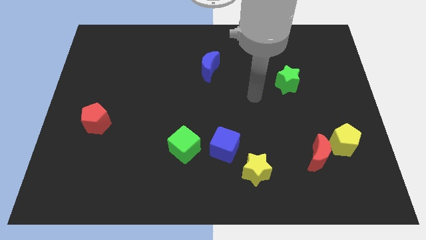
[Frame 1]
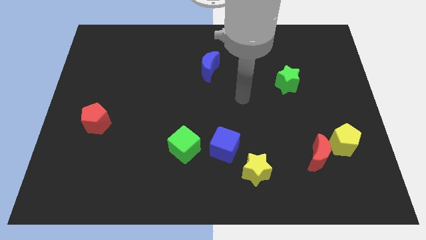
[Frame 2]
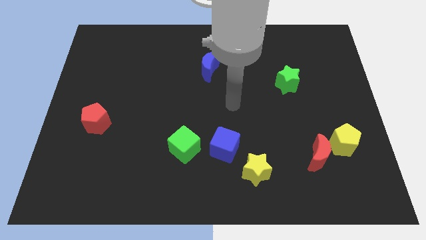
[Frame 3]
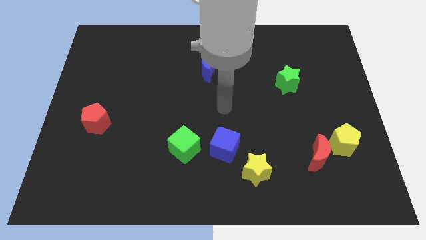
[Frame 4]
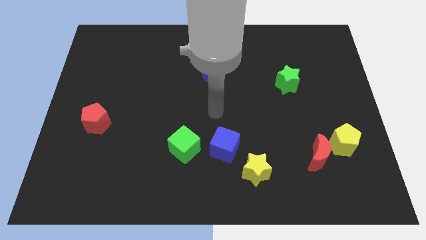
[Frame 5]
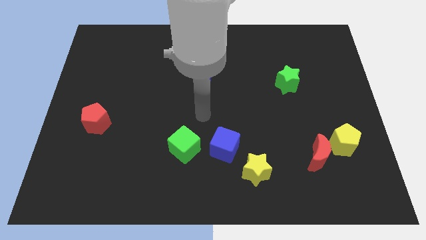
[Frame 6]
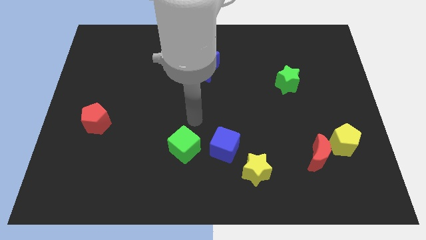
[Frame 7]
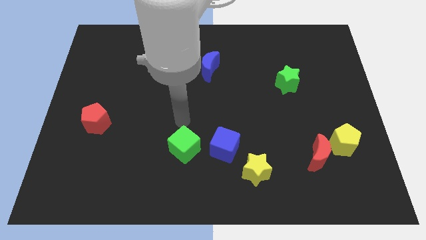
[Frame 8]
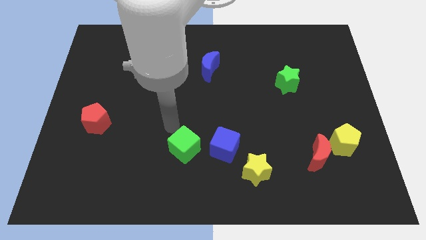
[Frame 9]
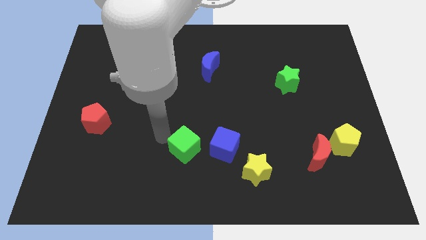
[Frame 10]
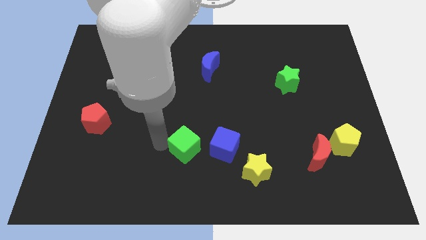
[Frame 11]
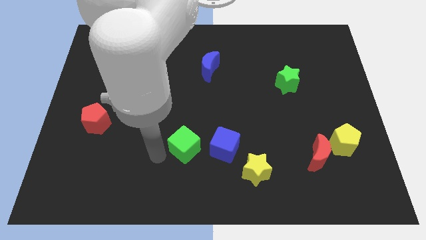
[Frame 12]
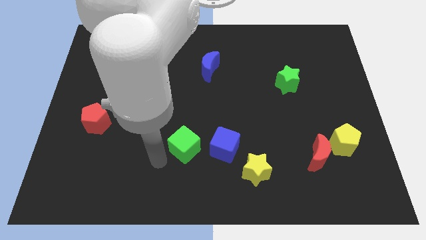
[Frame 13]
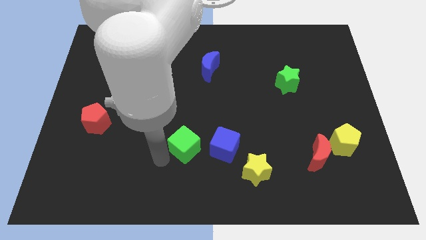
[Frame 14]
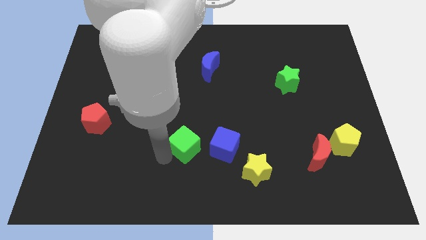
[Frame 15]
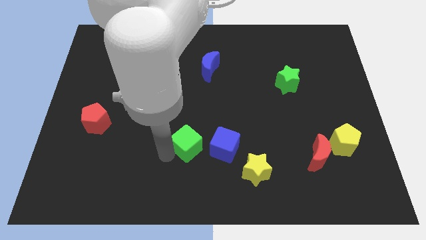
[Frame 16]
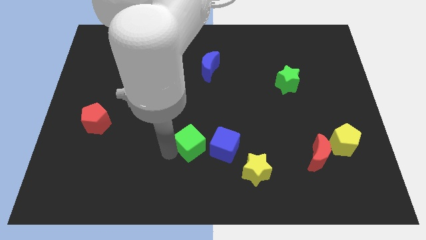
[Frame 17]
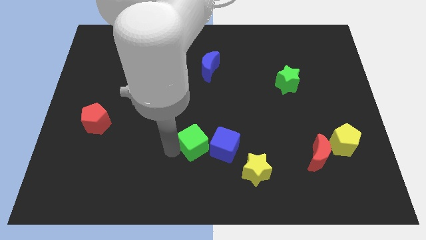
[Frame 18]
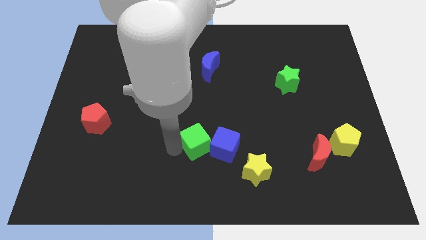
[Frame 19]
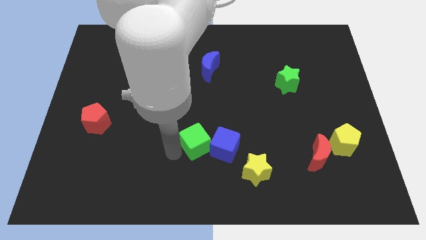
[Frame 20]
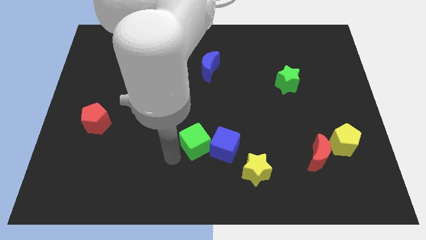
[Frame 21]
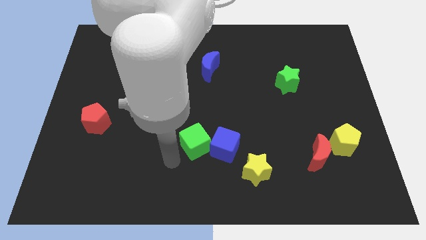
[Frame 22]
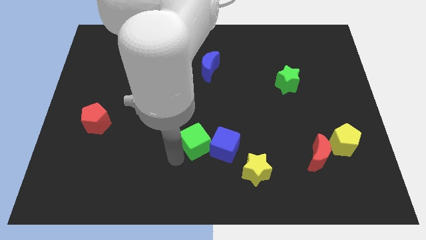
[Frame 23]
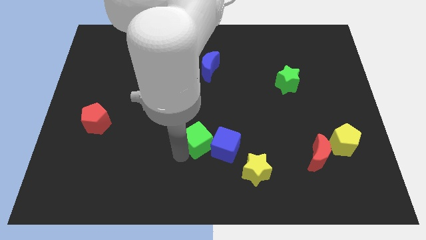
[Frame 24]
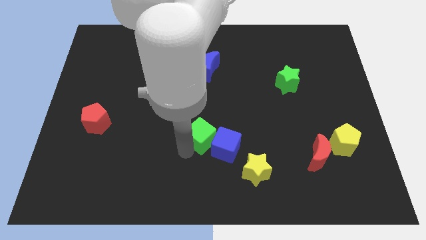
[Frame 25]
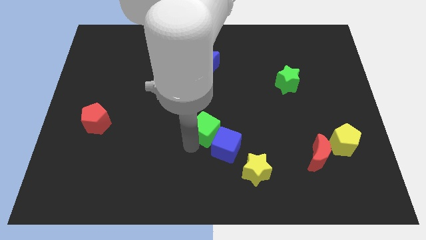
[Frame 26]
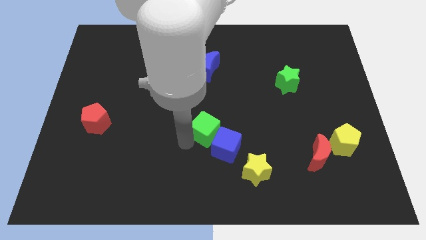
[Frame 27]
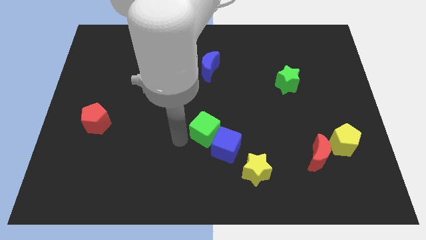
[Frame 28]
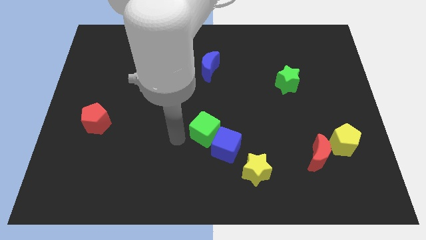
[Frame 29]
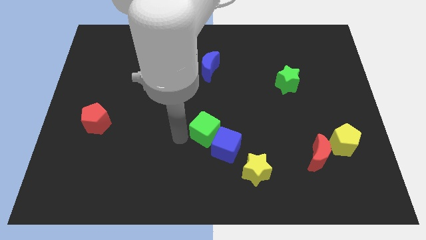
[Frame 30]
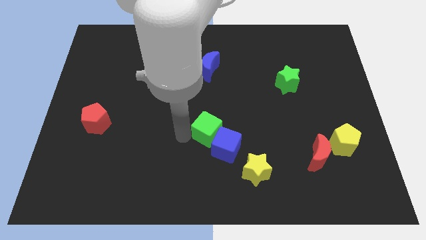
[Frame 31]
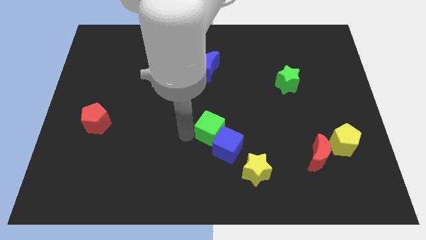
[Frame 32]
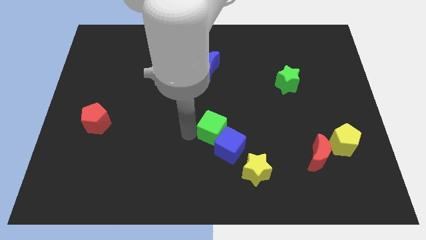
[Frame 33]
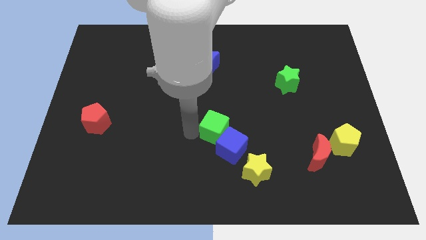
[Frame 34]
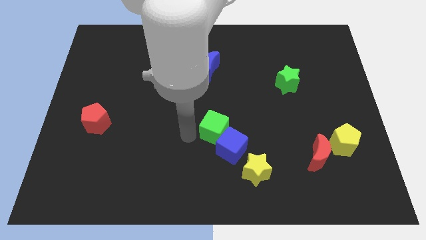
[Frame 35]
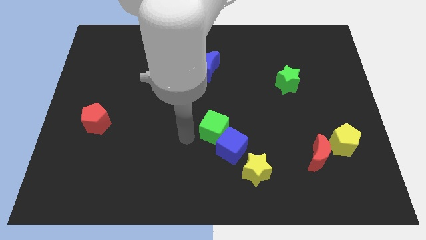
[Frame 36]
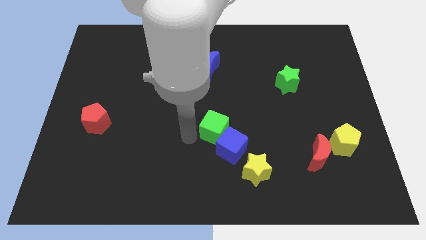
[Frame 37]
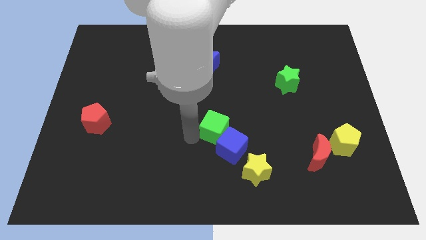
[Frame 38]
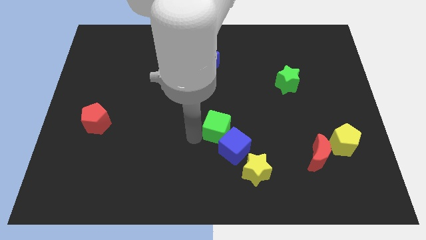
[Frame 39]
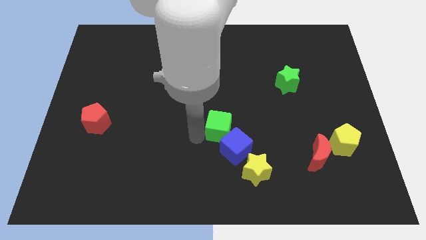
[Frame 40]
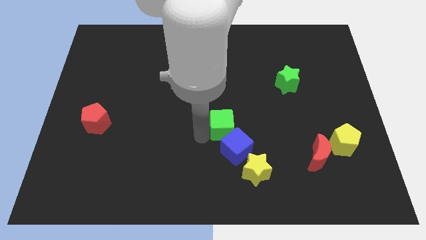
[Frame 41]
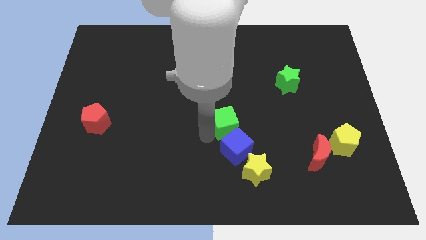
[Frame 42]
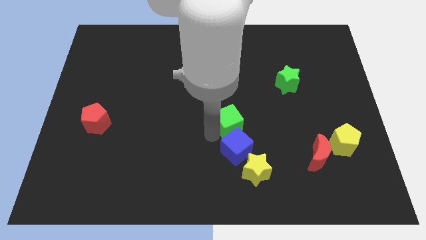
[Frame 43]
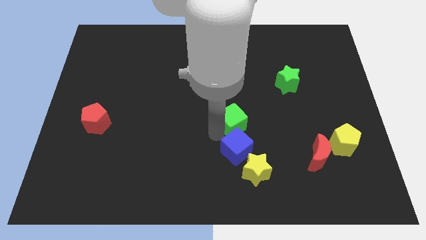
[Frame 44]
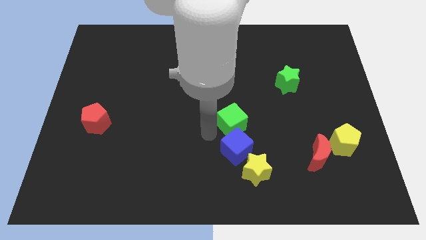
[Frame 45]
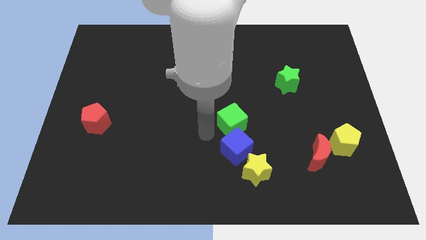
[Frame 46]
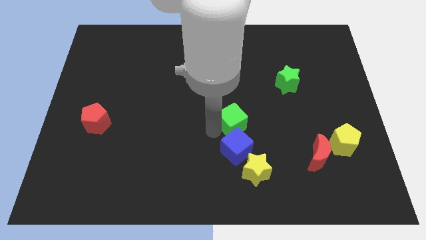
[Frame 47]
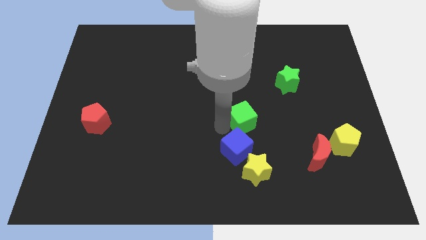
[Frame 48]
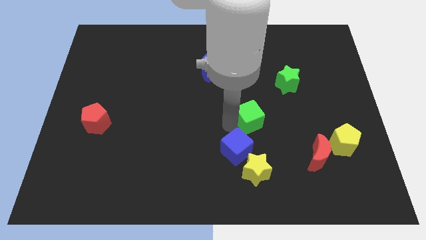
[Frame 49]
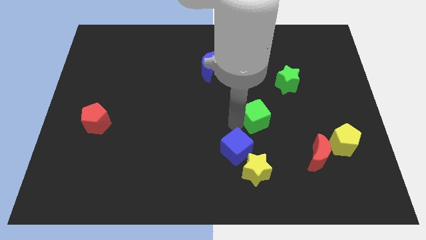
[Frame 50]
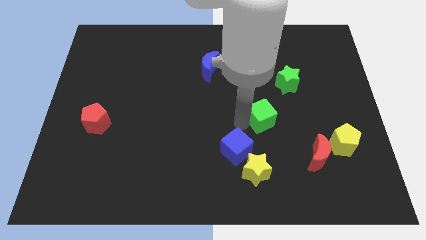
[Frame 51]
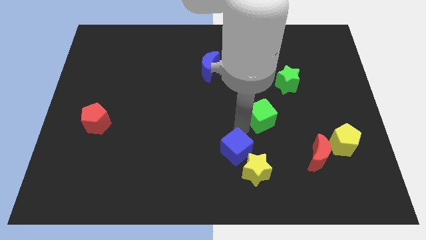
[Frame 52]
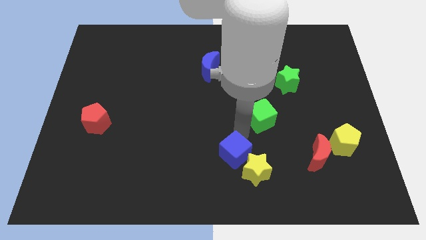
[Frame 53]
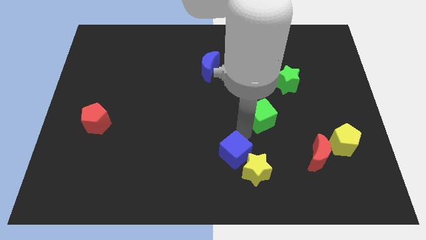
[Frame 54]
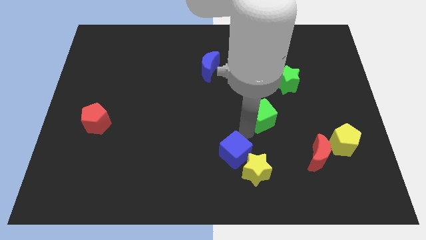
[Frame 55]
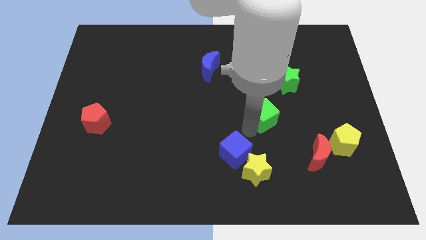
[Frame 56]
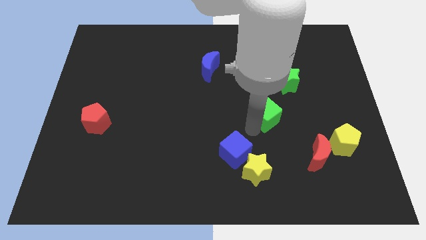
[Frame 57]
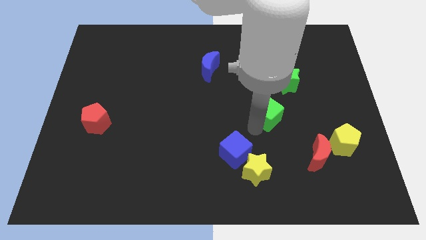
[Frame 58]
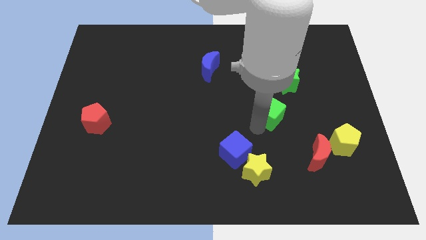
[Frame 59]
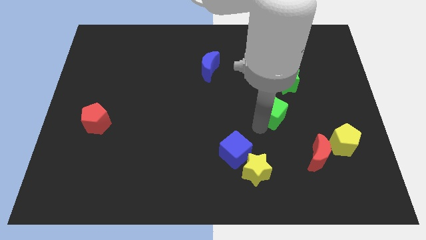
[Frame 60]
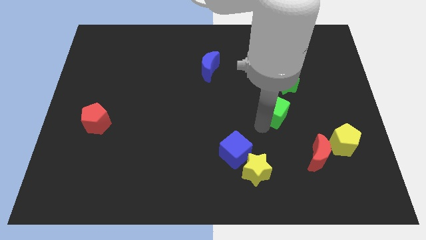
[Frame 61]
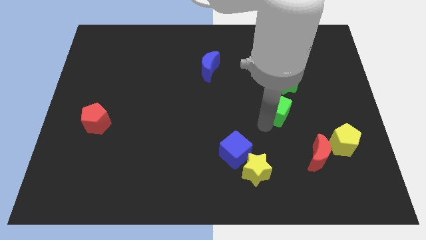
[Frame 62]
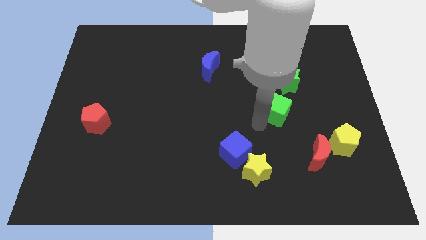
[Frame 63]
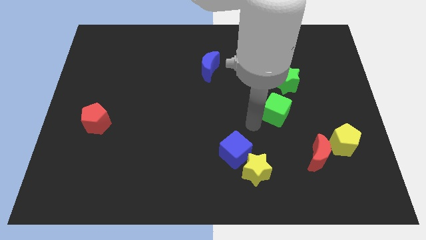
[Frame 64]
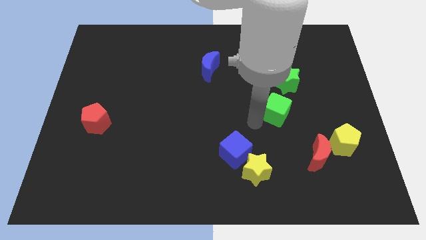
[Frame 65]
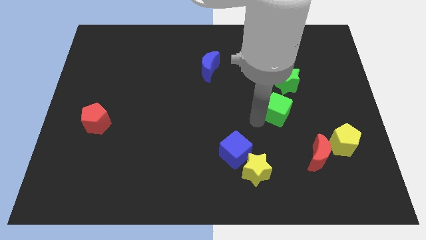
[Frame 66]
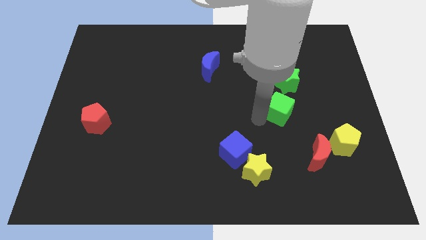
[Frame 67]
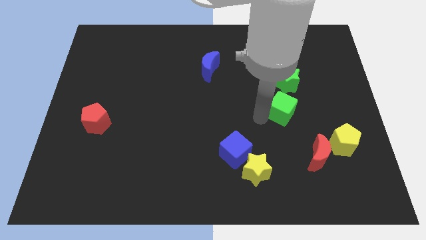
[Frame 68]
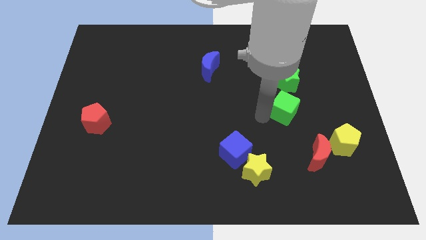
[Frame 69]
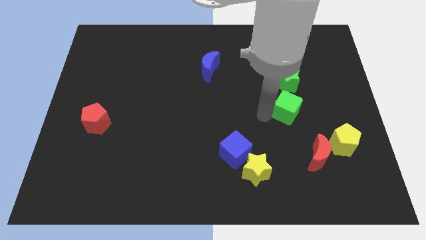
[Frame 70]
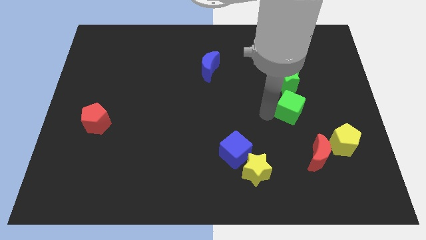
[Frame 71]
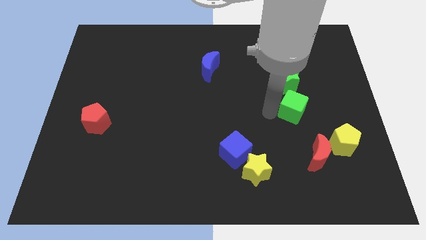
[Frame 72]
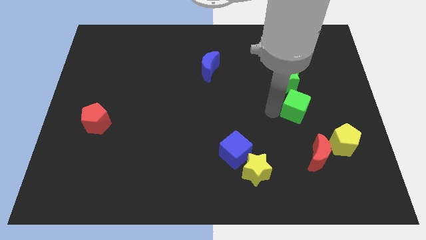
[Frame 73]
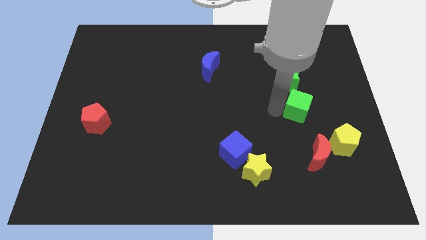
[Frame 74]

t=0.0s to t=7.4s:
push the green cube to the bottom right of the green star
